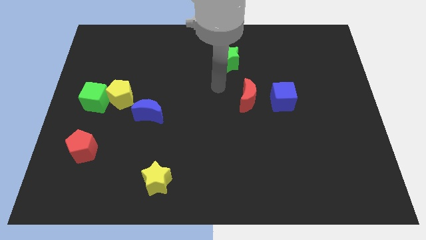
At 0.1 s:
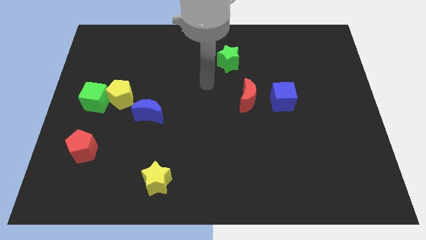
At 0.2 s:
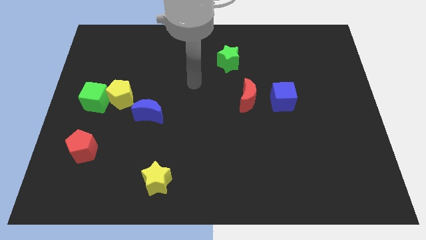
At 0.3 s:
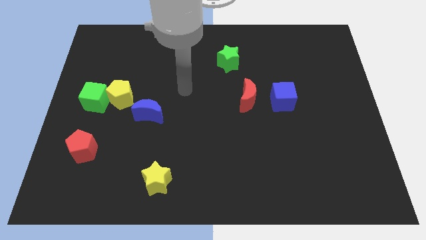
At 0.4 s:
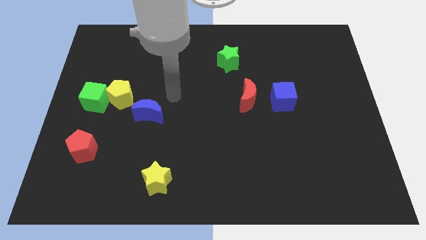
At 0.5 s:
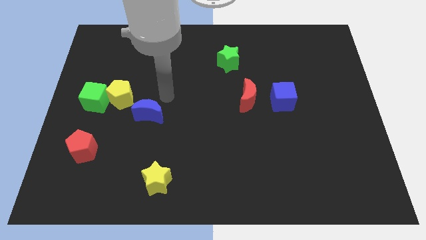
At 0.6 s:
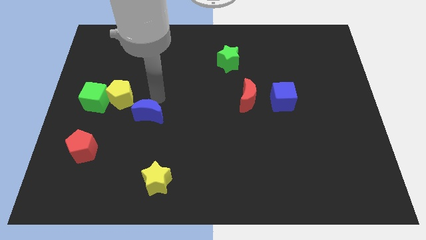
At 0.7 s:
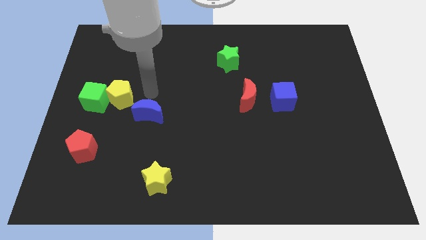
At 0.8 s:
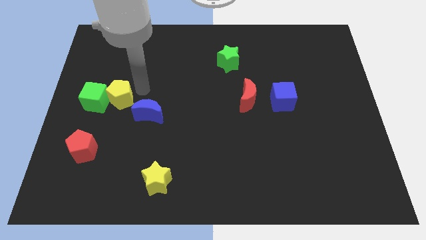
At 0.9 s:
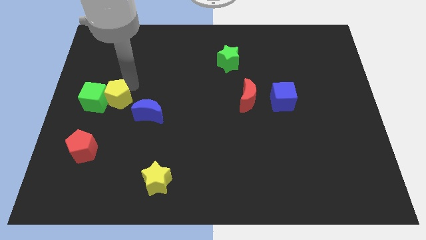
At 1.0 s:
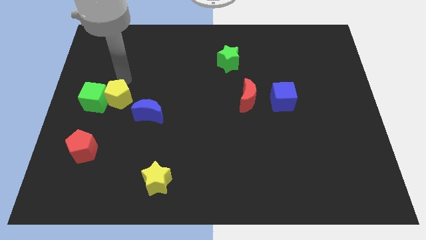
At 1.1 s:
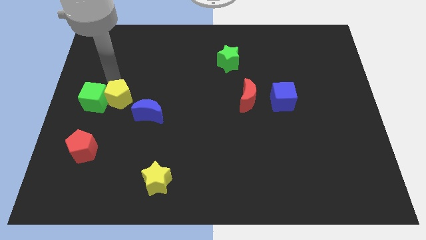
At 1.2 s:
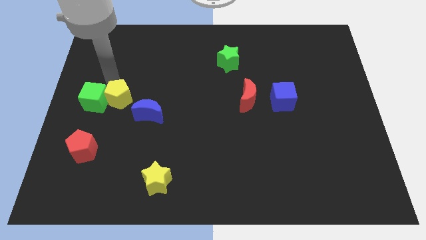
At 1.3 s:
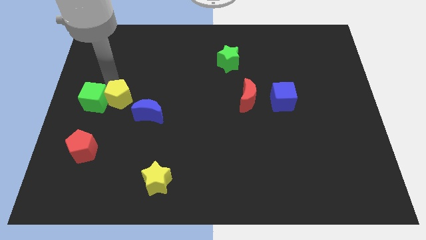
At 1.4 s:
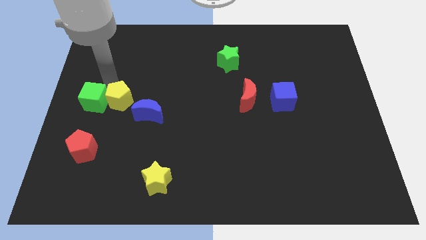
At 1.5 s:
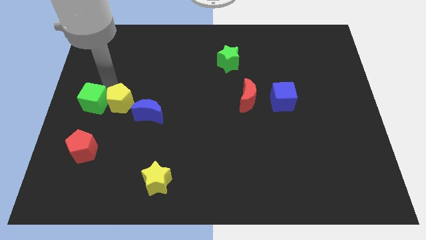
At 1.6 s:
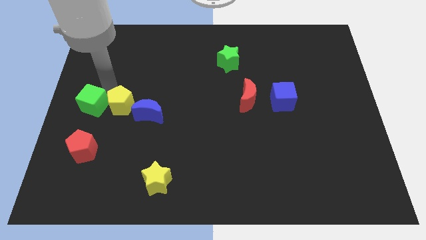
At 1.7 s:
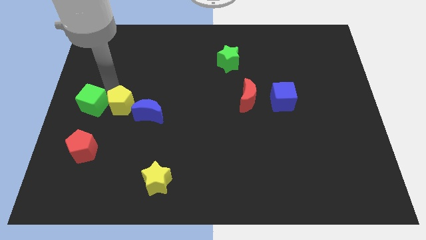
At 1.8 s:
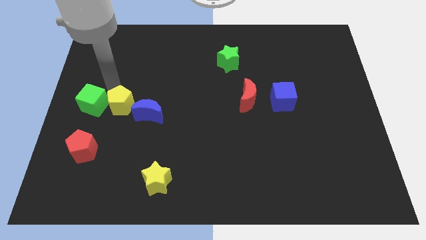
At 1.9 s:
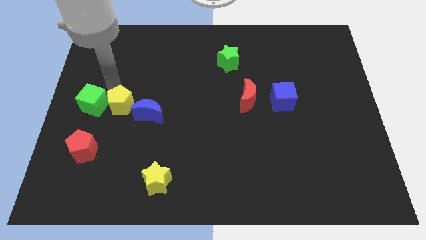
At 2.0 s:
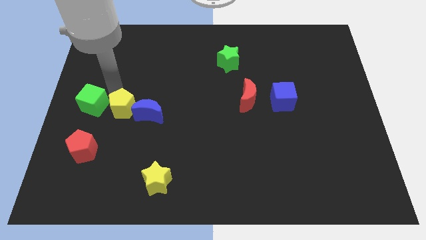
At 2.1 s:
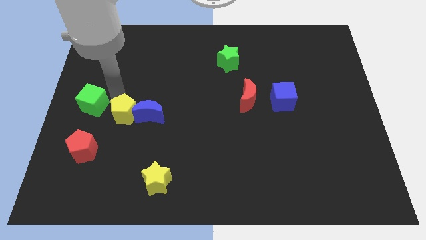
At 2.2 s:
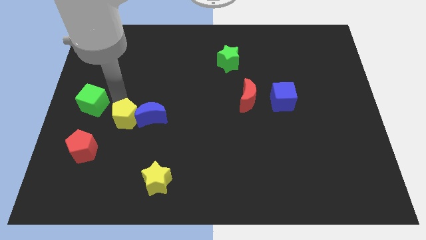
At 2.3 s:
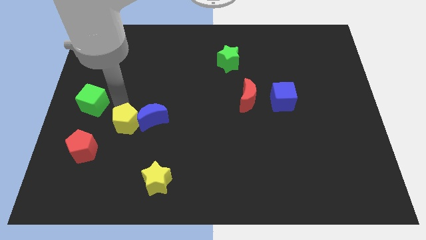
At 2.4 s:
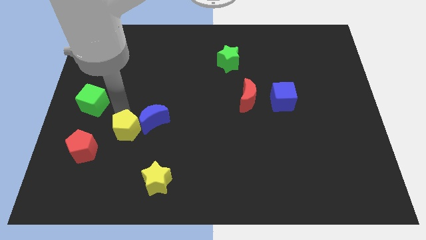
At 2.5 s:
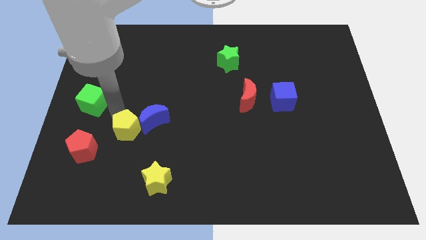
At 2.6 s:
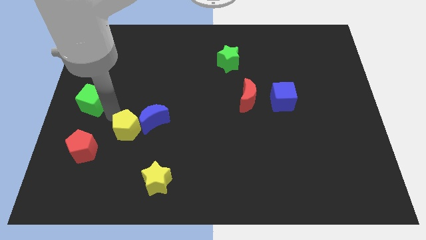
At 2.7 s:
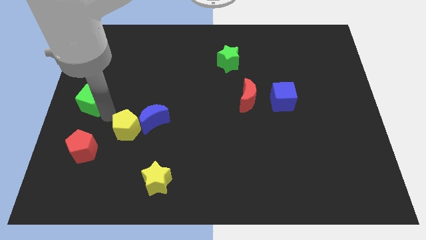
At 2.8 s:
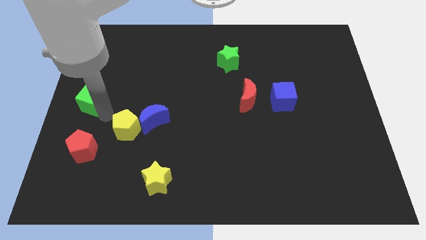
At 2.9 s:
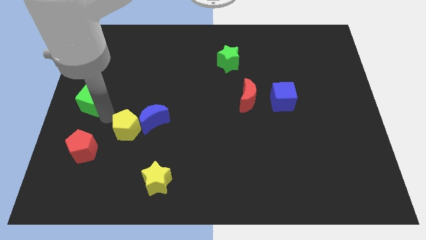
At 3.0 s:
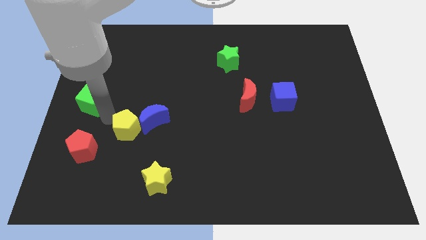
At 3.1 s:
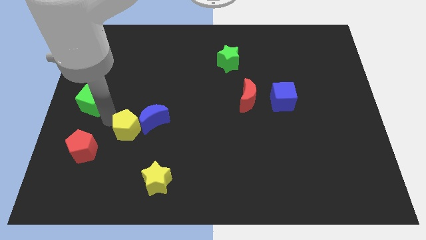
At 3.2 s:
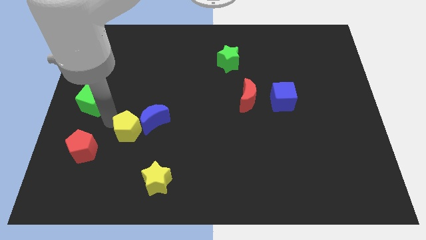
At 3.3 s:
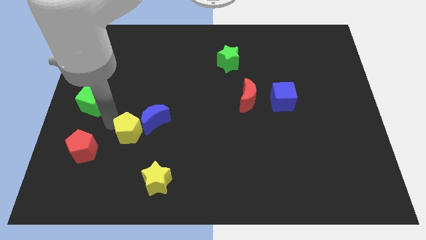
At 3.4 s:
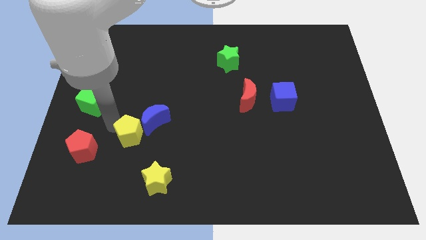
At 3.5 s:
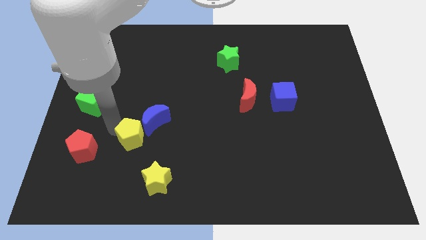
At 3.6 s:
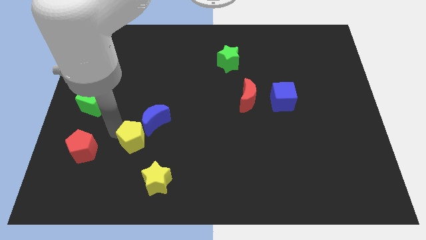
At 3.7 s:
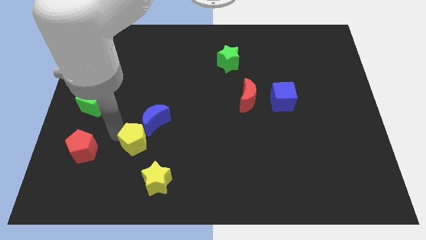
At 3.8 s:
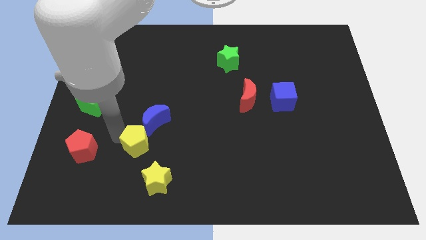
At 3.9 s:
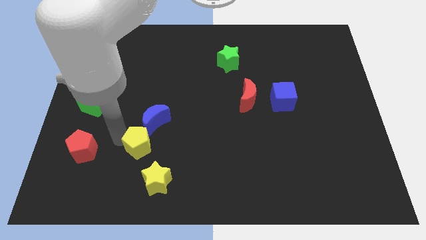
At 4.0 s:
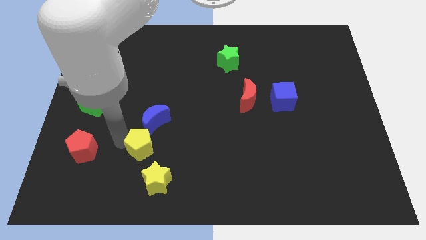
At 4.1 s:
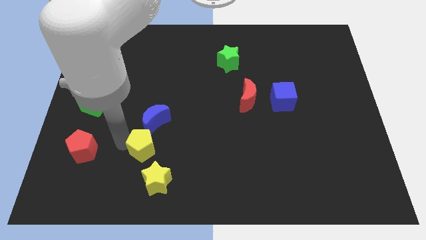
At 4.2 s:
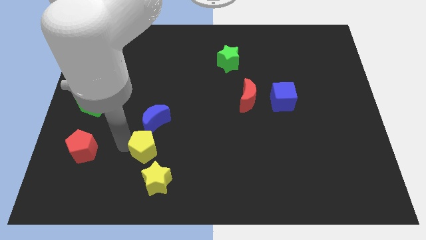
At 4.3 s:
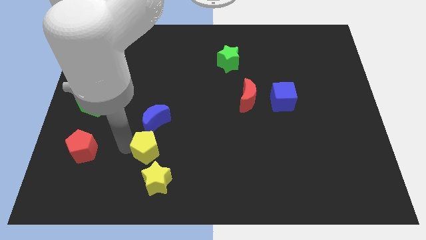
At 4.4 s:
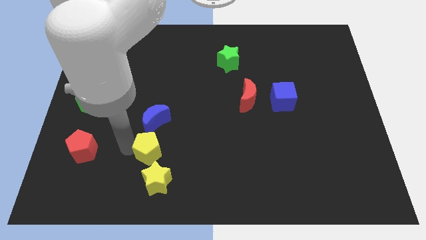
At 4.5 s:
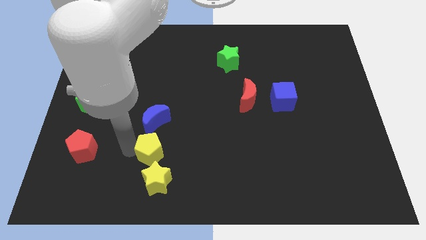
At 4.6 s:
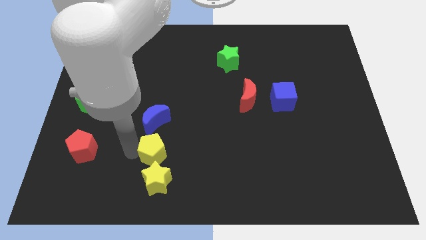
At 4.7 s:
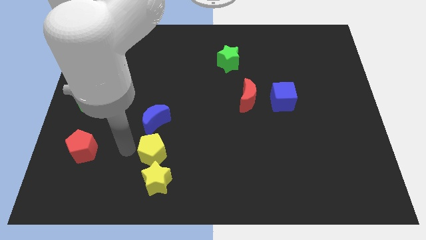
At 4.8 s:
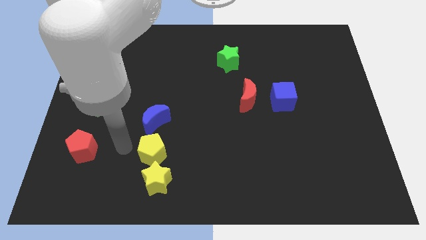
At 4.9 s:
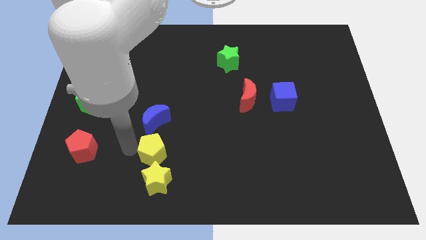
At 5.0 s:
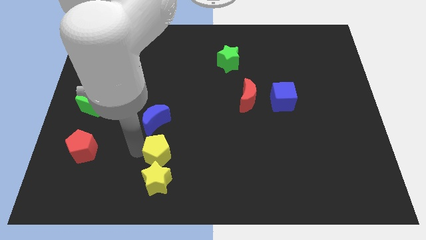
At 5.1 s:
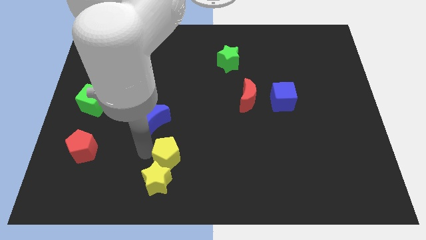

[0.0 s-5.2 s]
push the yellow pentagon down and right

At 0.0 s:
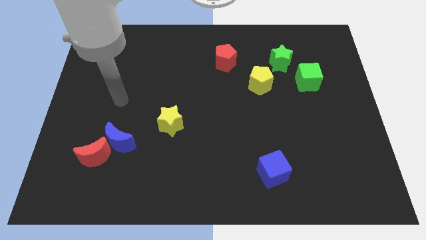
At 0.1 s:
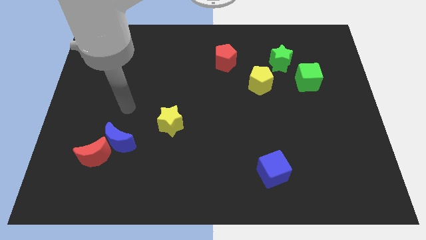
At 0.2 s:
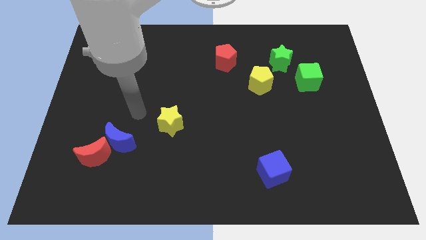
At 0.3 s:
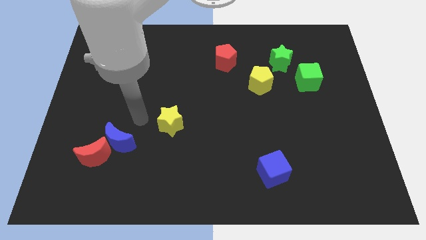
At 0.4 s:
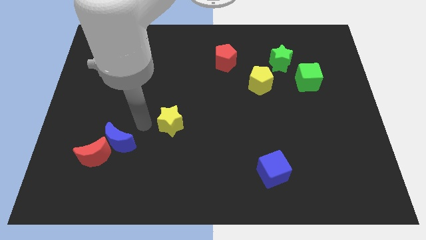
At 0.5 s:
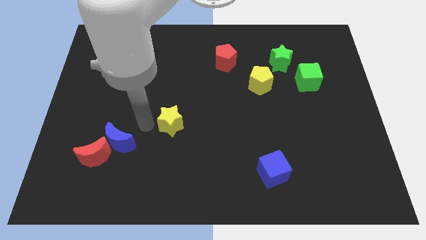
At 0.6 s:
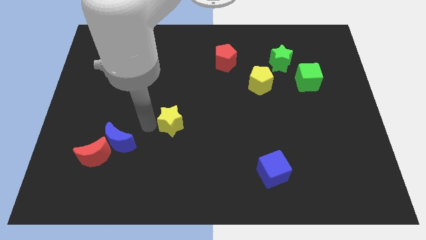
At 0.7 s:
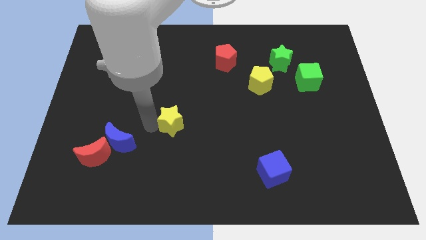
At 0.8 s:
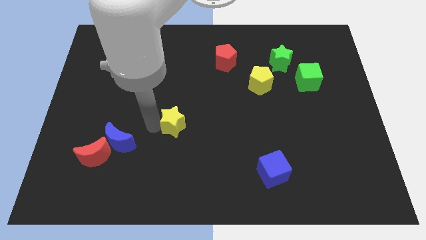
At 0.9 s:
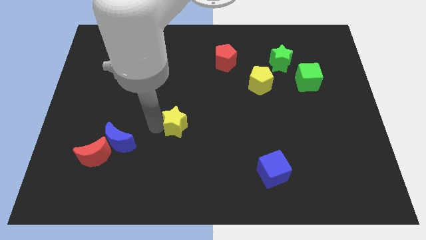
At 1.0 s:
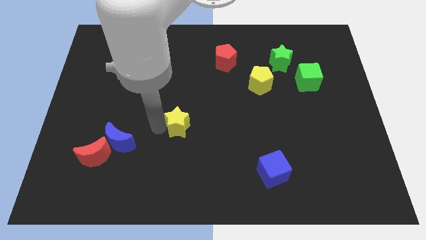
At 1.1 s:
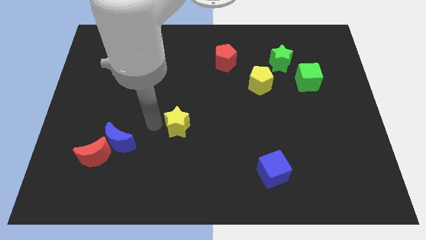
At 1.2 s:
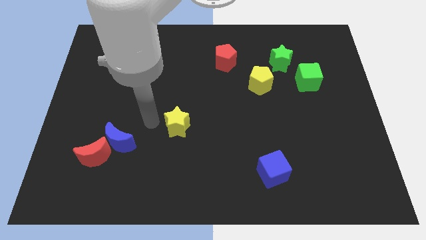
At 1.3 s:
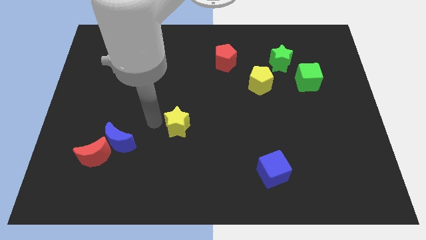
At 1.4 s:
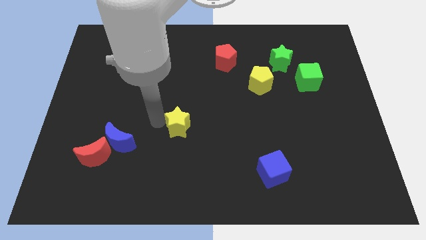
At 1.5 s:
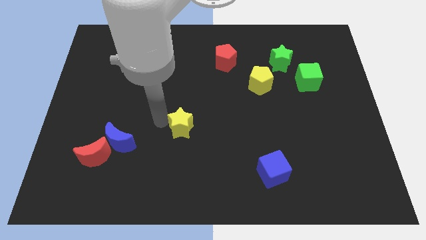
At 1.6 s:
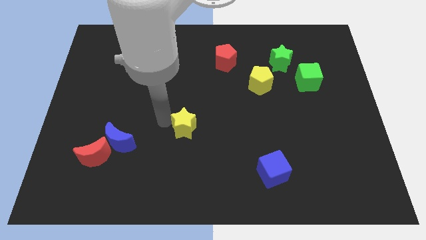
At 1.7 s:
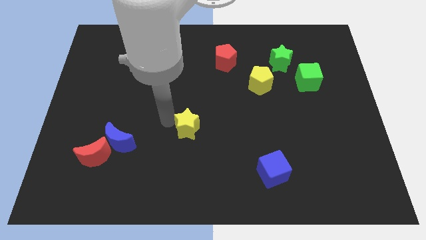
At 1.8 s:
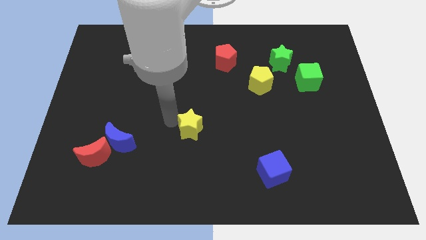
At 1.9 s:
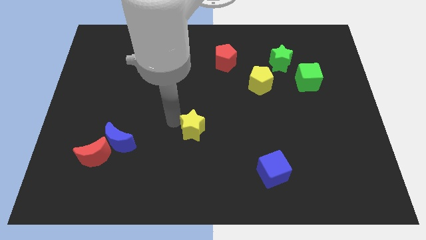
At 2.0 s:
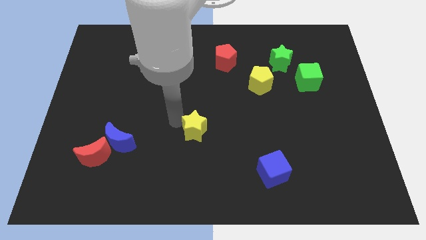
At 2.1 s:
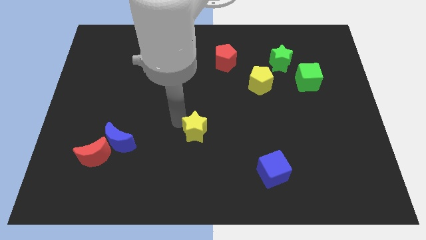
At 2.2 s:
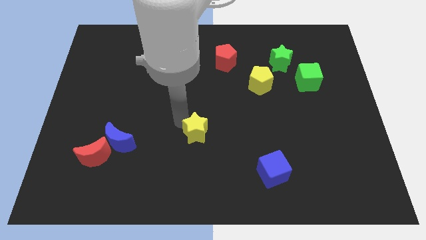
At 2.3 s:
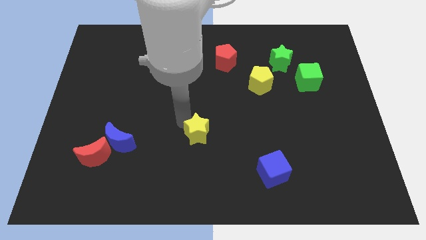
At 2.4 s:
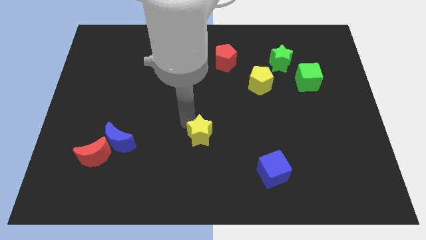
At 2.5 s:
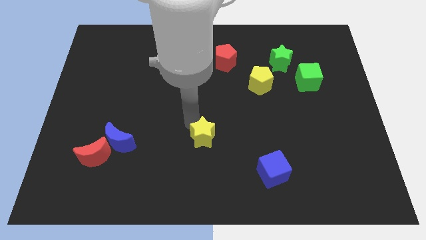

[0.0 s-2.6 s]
slightly move the yellow star right

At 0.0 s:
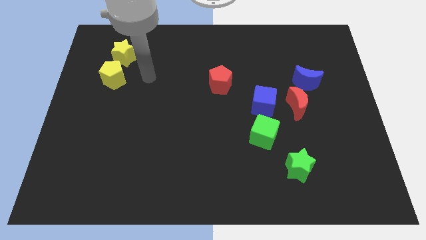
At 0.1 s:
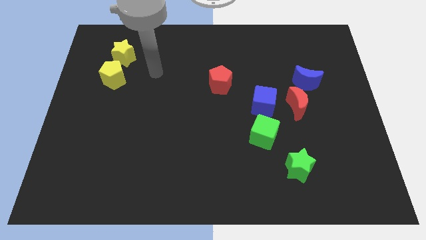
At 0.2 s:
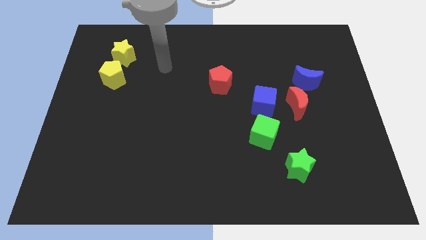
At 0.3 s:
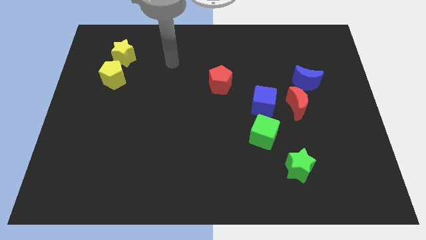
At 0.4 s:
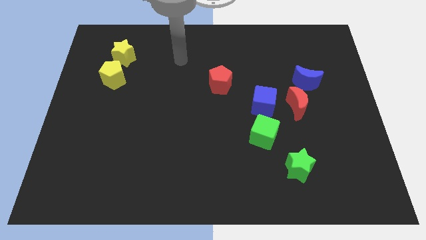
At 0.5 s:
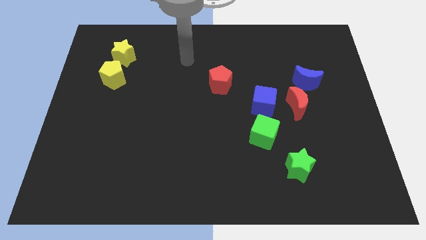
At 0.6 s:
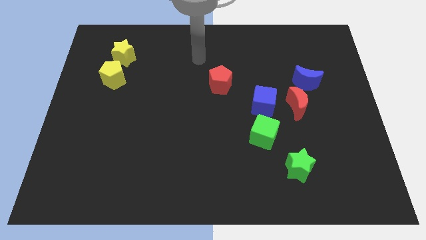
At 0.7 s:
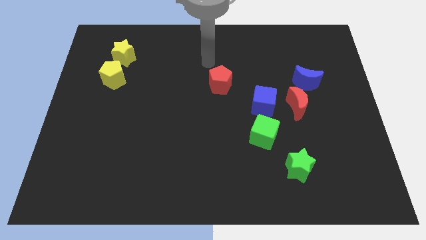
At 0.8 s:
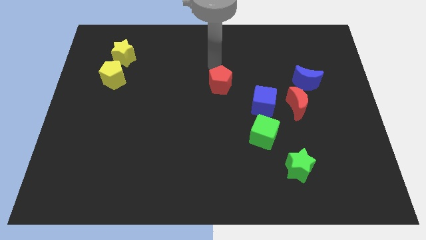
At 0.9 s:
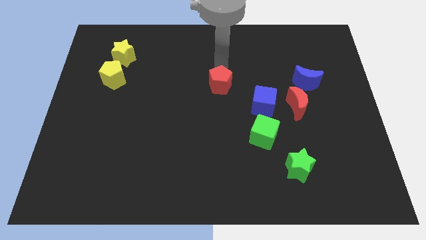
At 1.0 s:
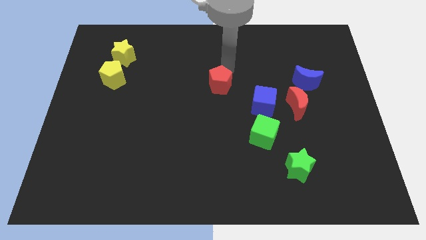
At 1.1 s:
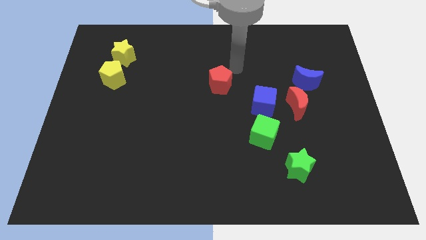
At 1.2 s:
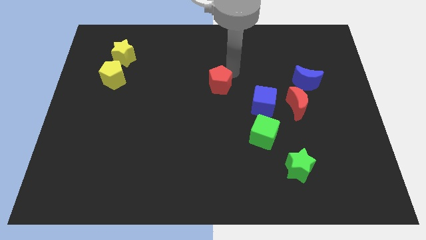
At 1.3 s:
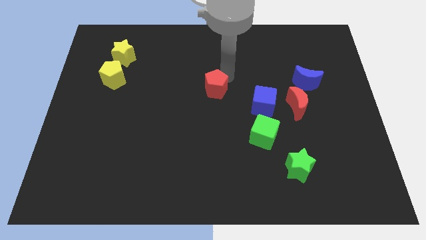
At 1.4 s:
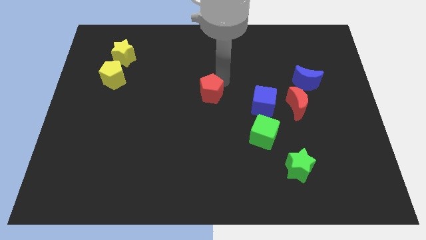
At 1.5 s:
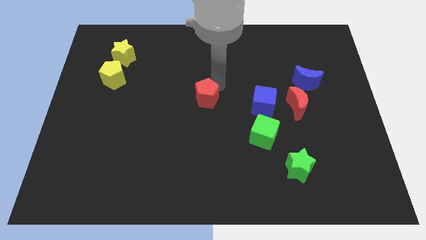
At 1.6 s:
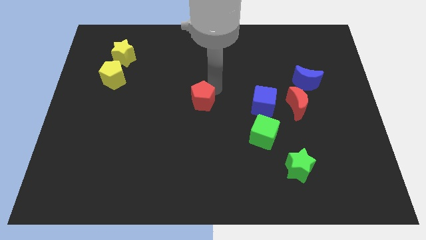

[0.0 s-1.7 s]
push the red pentagon down and to the left diagonally a little bit
